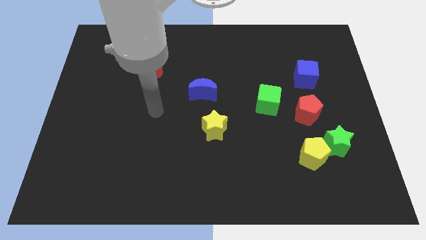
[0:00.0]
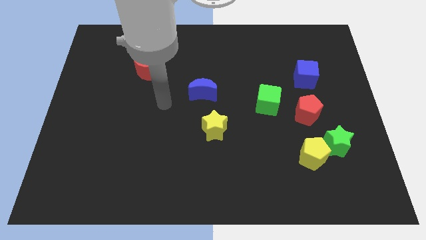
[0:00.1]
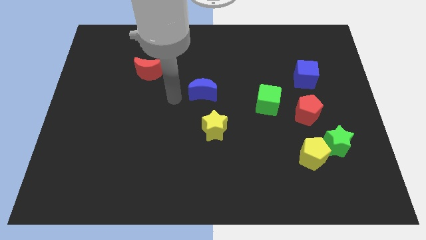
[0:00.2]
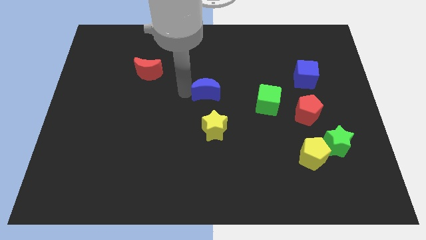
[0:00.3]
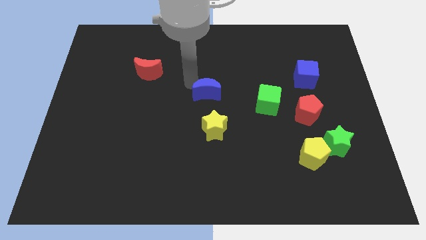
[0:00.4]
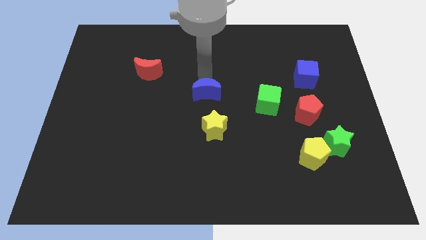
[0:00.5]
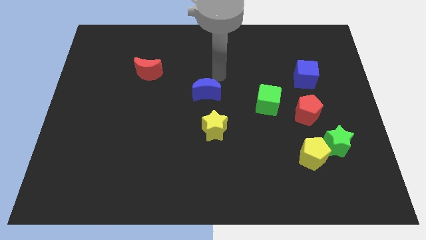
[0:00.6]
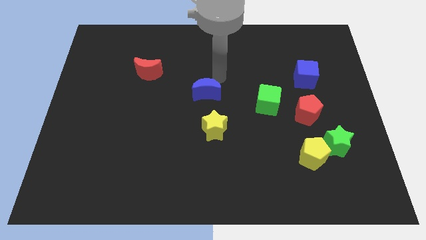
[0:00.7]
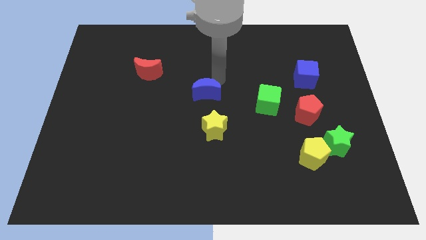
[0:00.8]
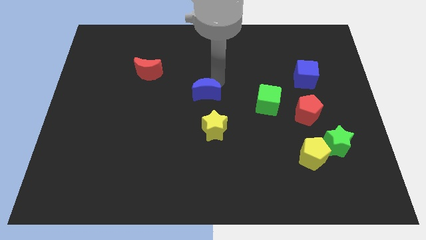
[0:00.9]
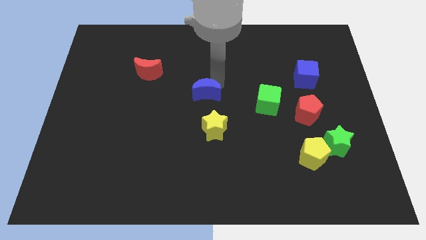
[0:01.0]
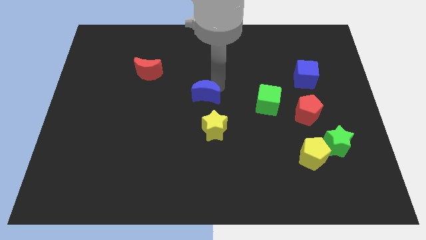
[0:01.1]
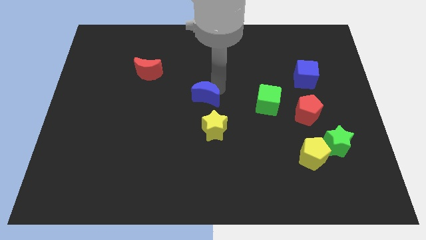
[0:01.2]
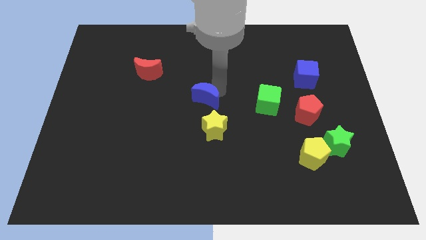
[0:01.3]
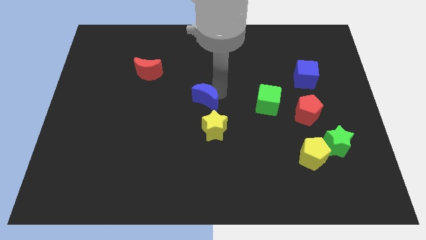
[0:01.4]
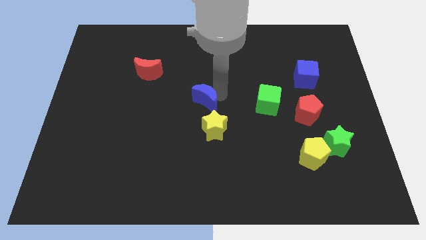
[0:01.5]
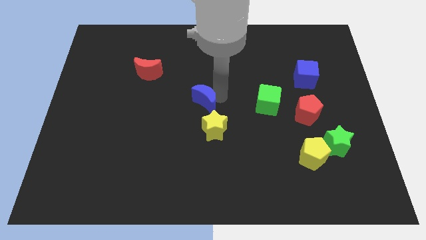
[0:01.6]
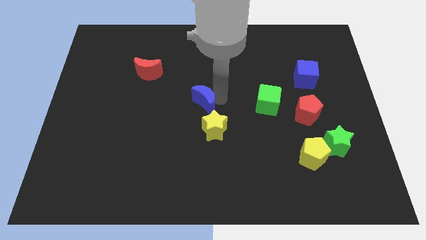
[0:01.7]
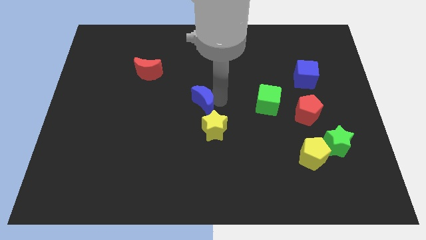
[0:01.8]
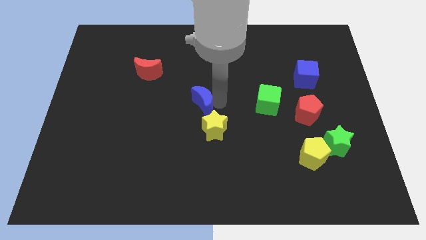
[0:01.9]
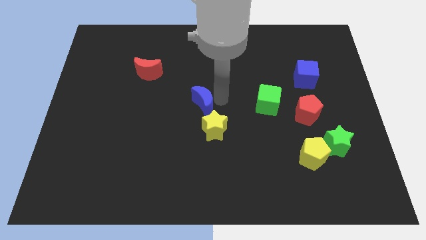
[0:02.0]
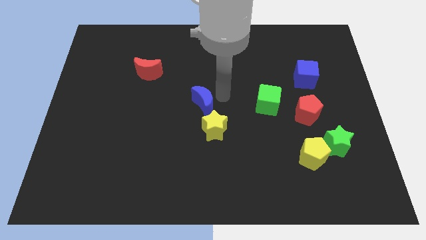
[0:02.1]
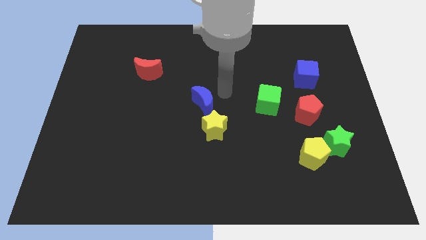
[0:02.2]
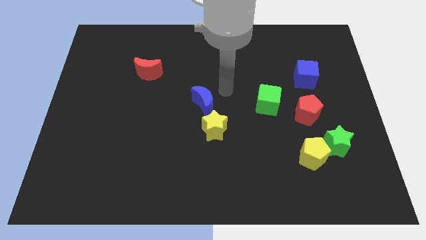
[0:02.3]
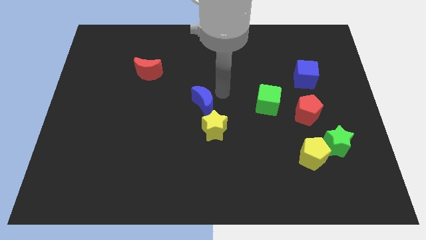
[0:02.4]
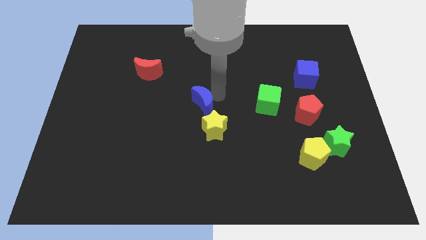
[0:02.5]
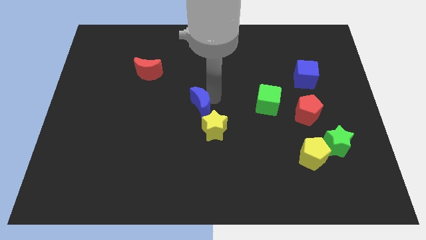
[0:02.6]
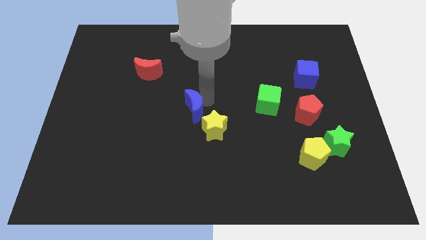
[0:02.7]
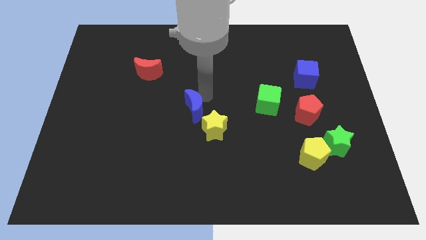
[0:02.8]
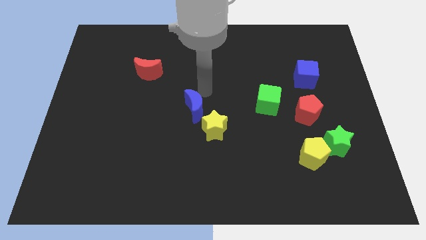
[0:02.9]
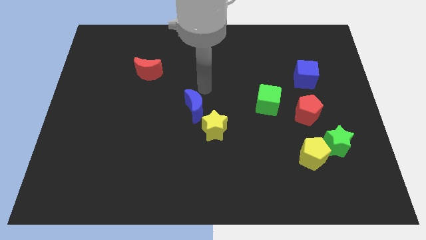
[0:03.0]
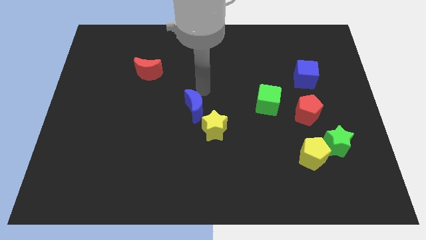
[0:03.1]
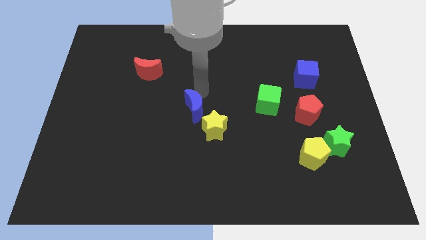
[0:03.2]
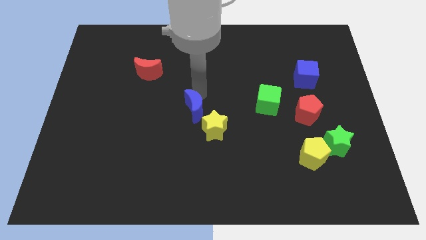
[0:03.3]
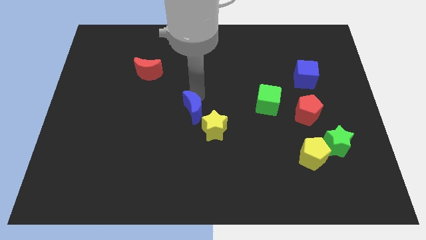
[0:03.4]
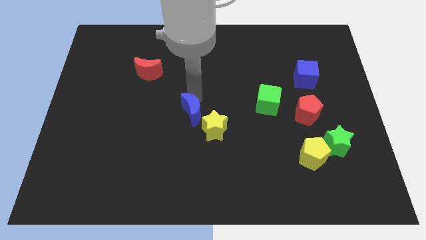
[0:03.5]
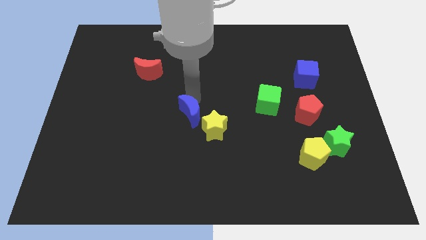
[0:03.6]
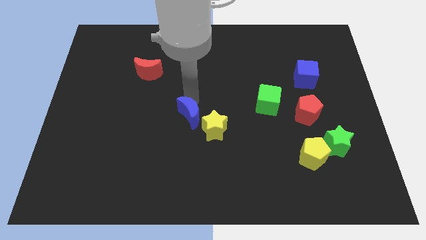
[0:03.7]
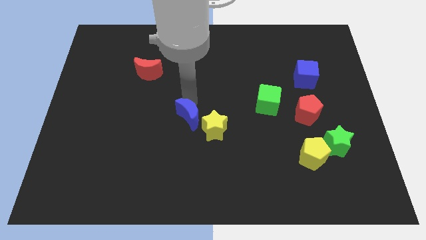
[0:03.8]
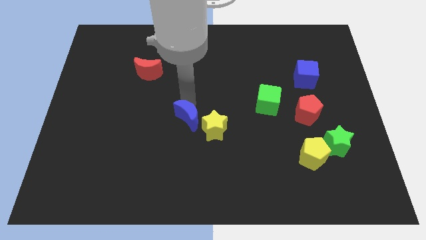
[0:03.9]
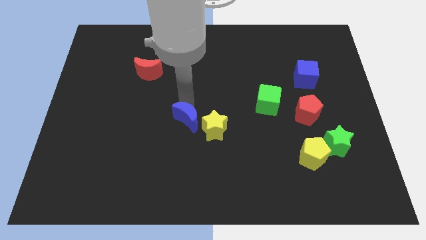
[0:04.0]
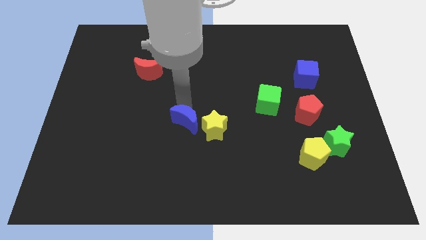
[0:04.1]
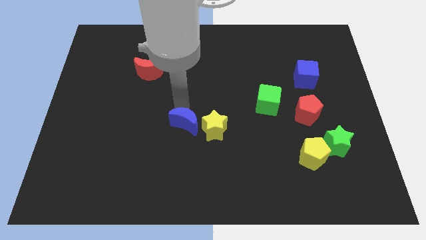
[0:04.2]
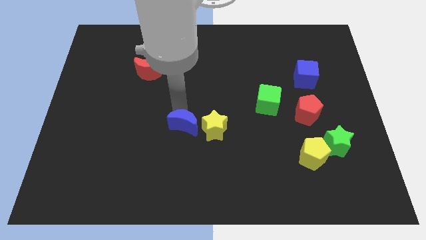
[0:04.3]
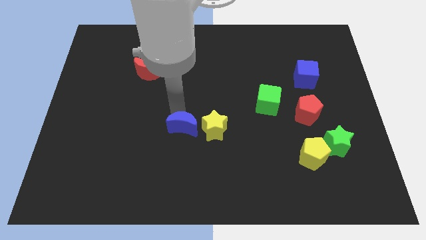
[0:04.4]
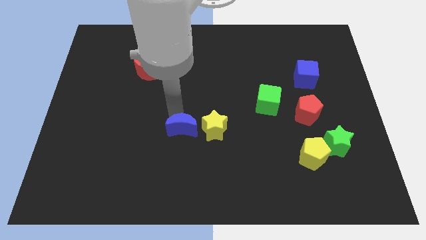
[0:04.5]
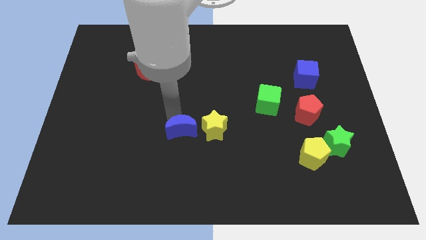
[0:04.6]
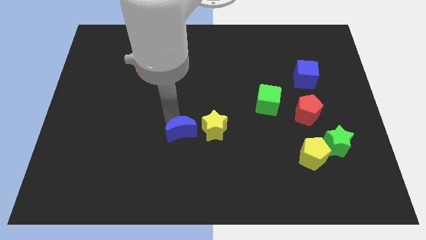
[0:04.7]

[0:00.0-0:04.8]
slide the blue moon to the bottom left of the yellow star

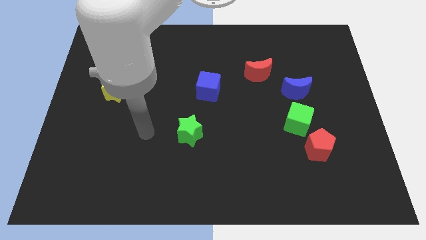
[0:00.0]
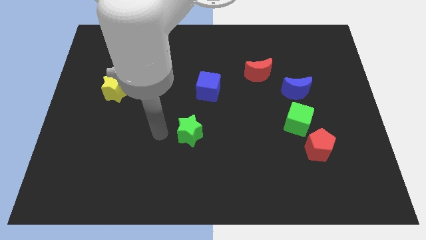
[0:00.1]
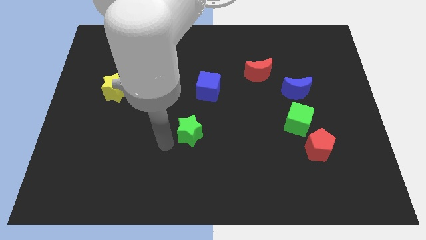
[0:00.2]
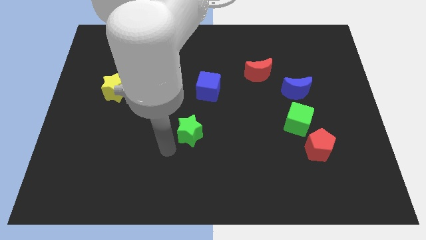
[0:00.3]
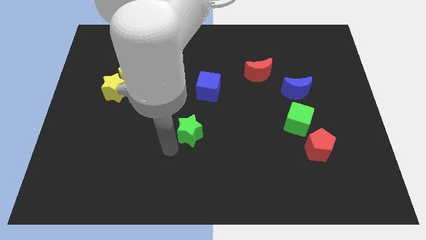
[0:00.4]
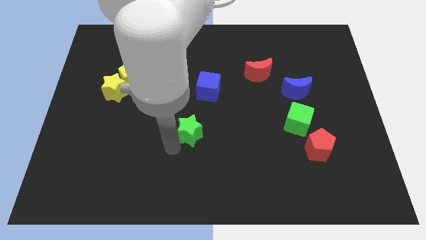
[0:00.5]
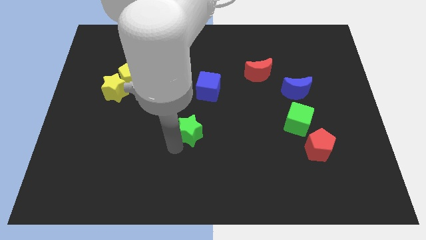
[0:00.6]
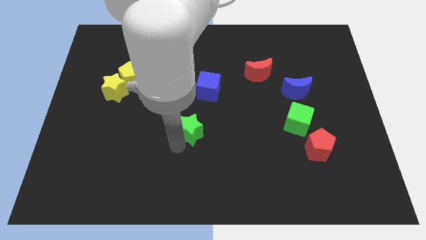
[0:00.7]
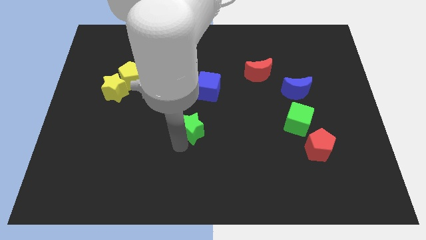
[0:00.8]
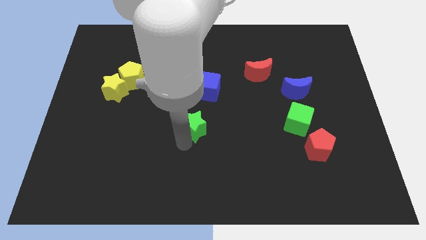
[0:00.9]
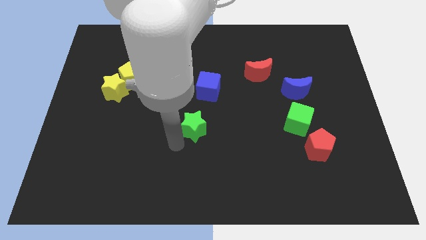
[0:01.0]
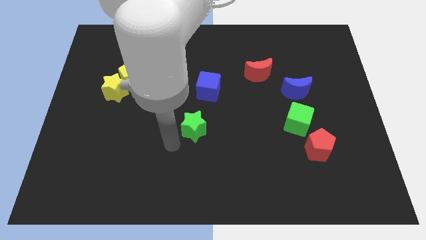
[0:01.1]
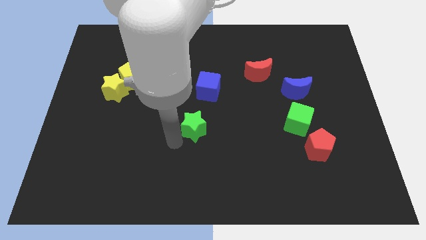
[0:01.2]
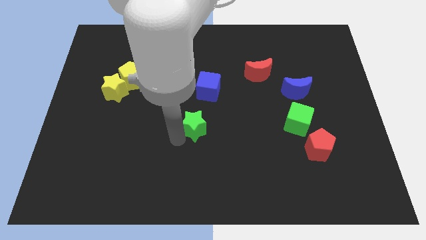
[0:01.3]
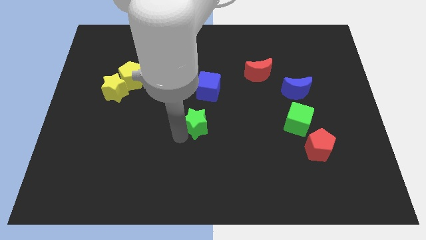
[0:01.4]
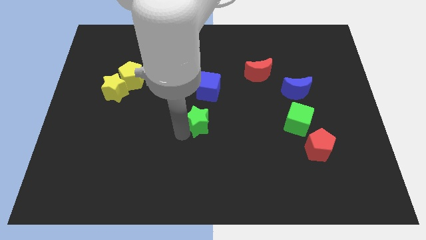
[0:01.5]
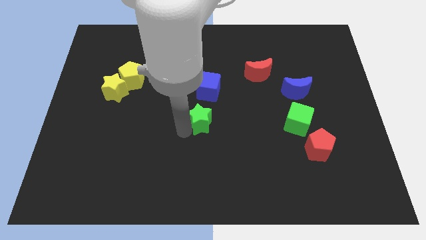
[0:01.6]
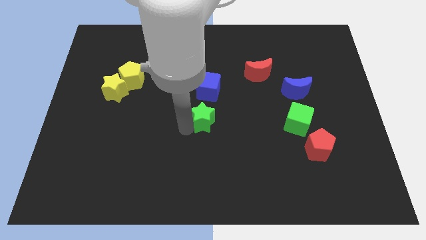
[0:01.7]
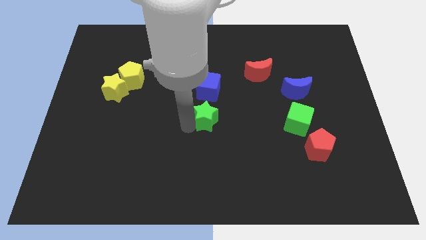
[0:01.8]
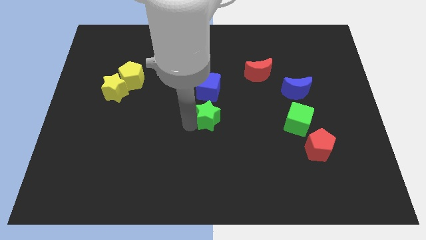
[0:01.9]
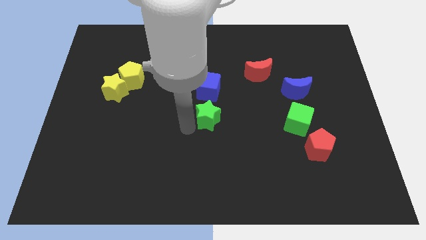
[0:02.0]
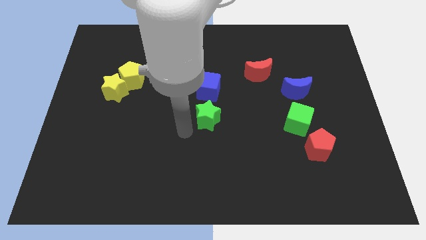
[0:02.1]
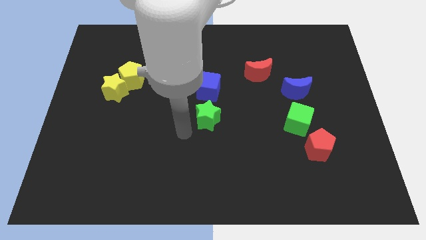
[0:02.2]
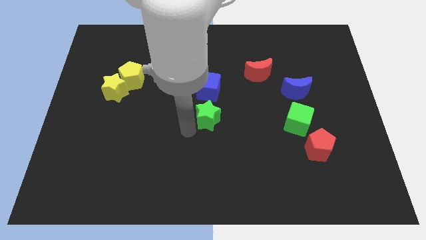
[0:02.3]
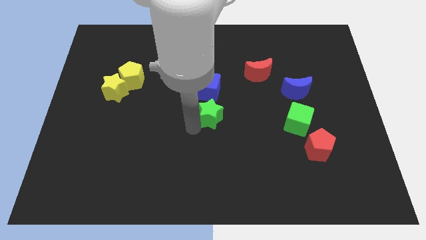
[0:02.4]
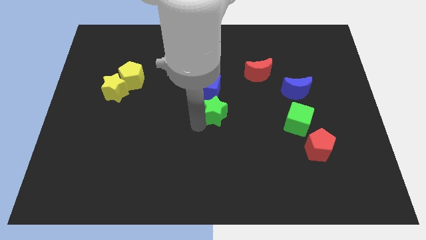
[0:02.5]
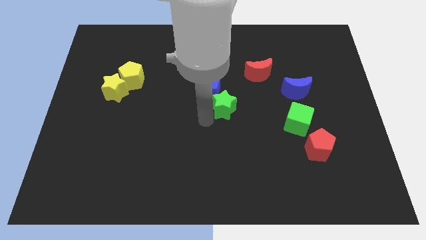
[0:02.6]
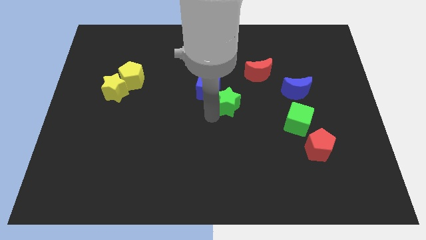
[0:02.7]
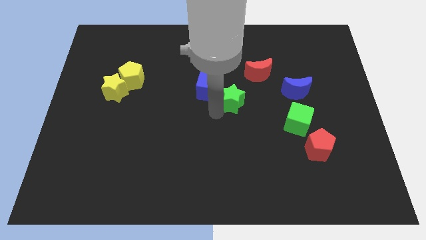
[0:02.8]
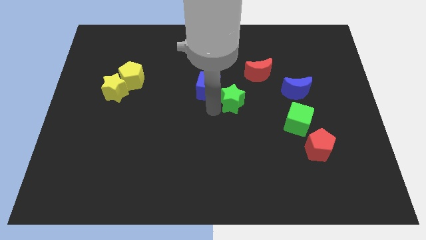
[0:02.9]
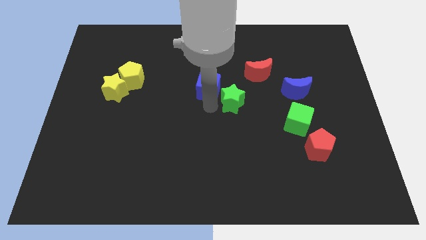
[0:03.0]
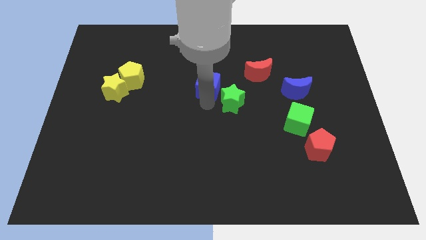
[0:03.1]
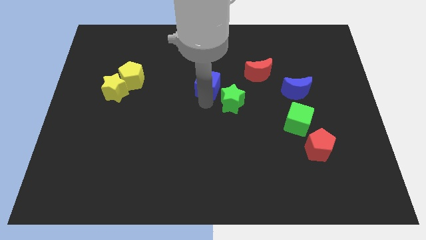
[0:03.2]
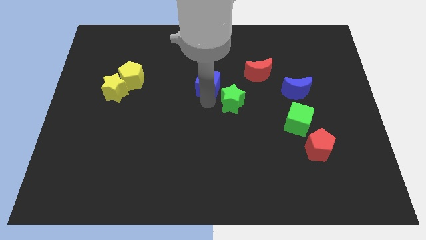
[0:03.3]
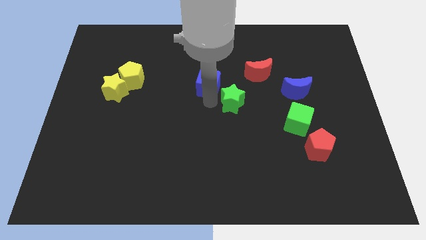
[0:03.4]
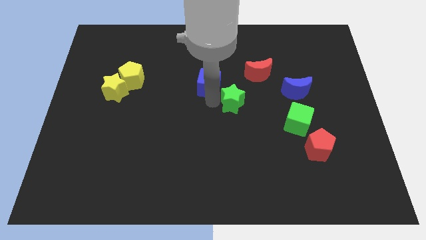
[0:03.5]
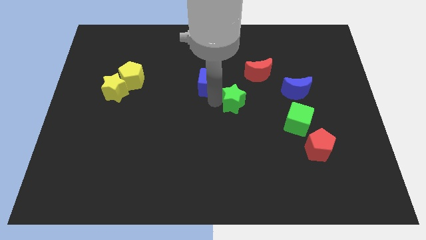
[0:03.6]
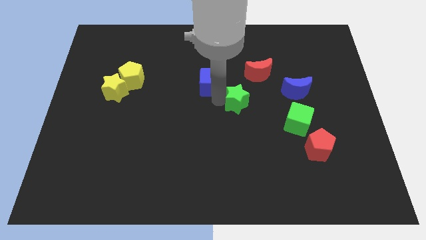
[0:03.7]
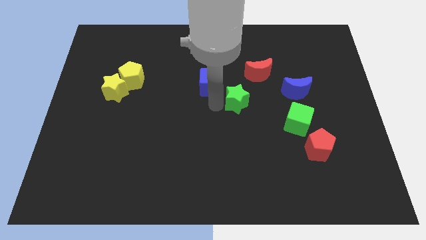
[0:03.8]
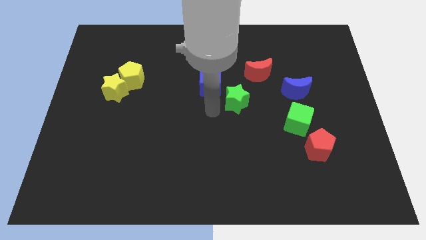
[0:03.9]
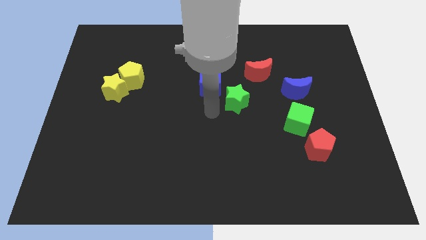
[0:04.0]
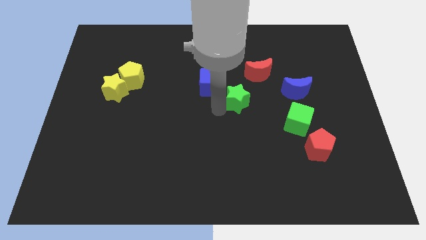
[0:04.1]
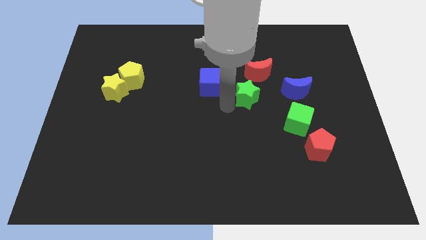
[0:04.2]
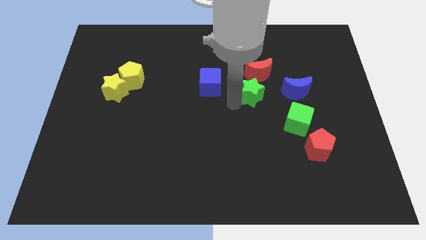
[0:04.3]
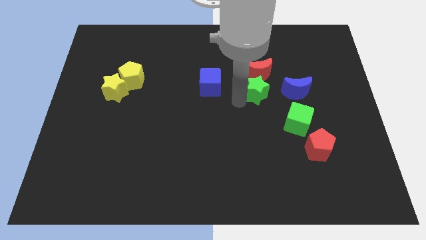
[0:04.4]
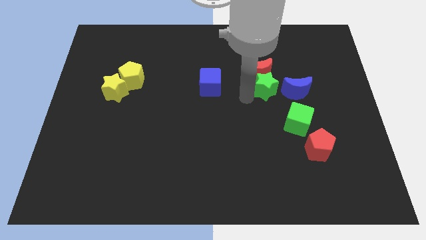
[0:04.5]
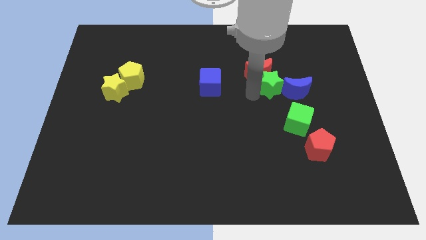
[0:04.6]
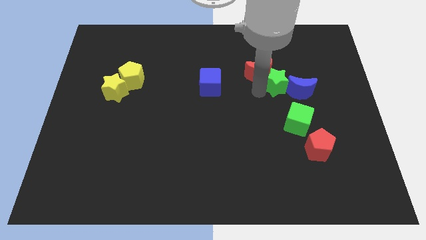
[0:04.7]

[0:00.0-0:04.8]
move the green star to the top of the green cube
